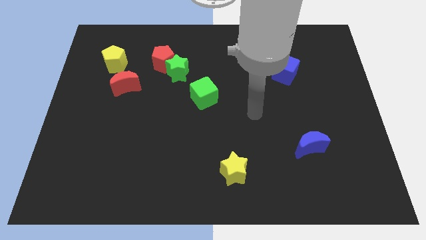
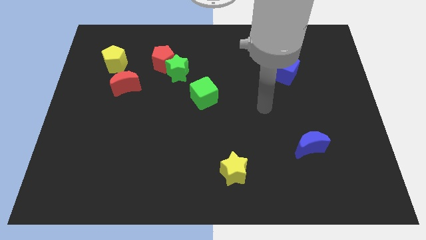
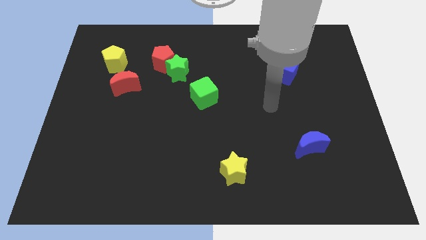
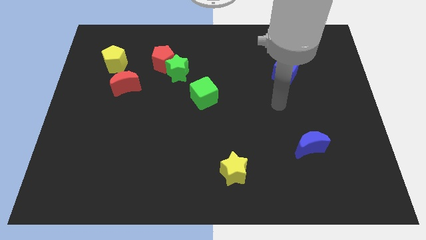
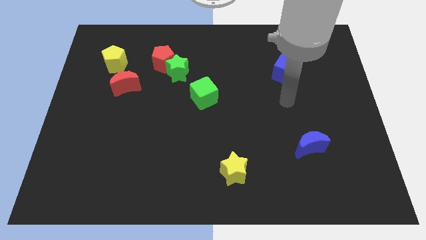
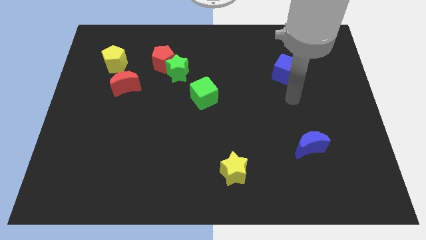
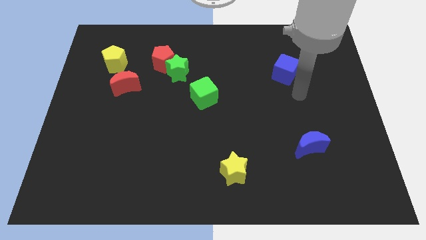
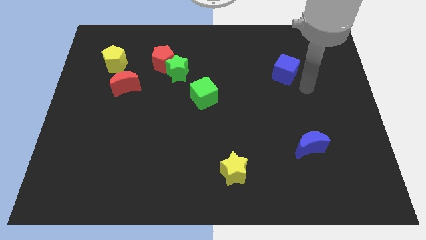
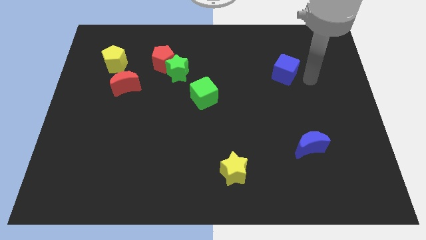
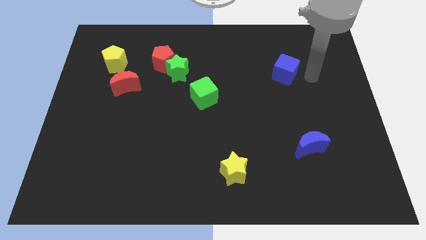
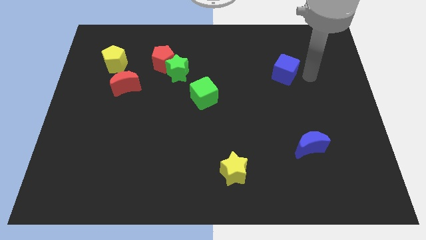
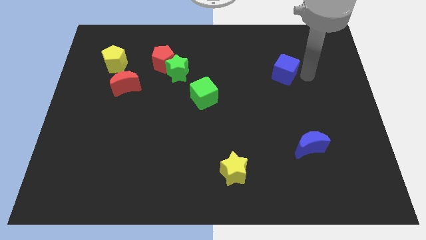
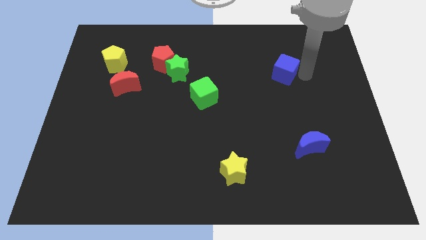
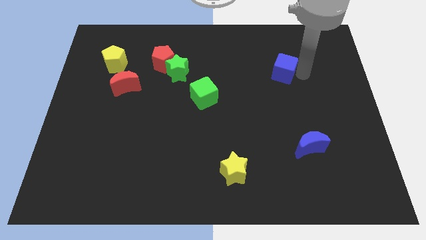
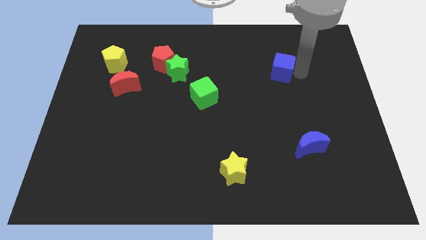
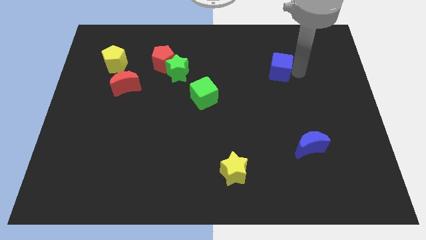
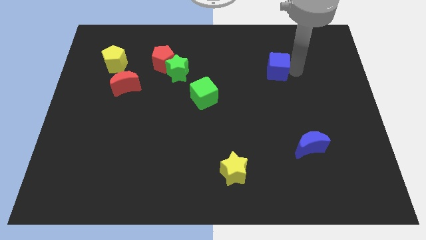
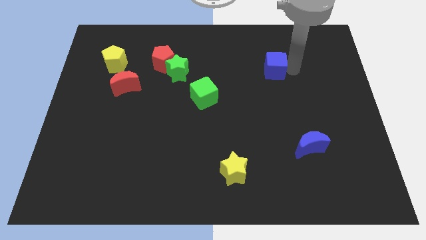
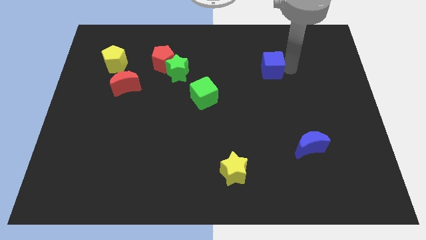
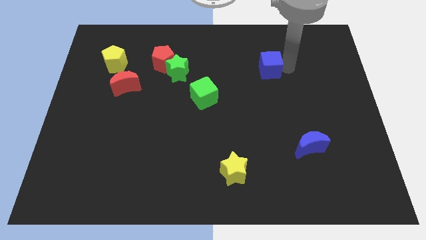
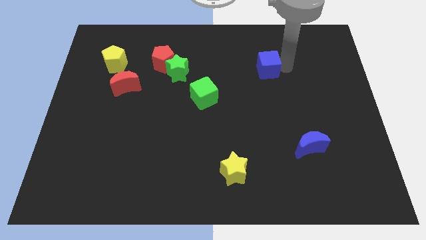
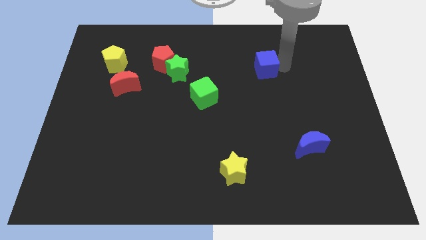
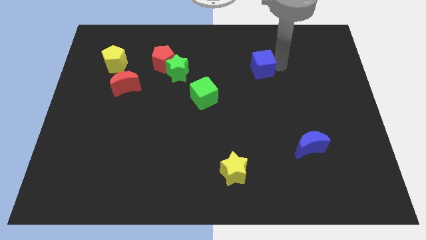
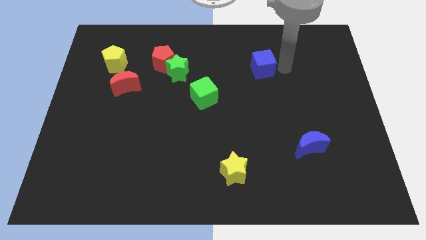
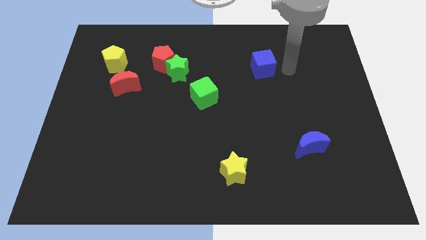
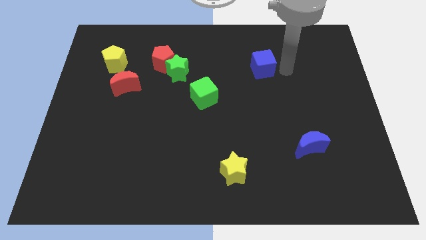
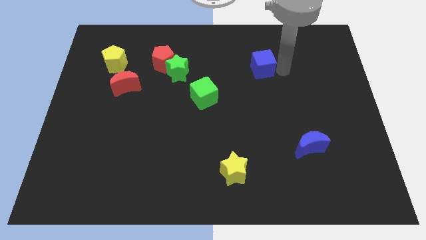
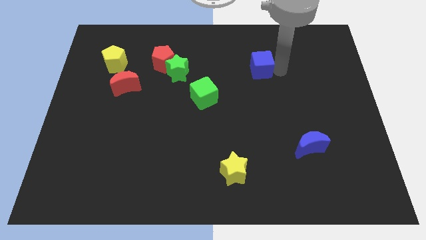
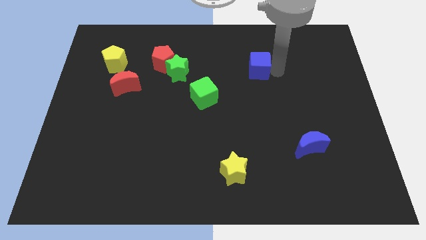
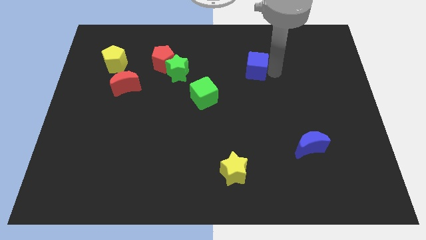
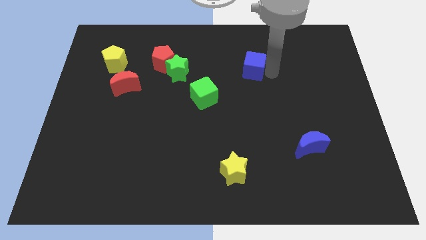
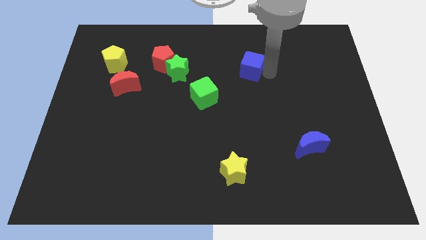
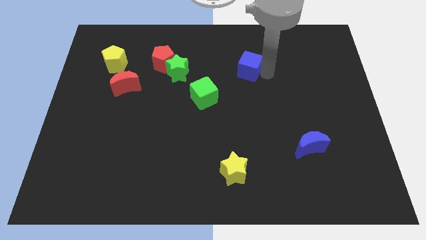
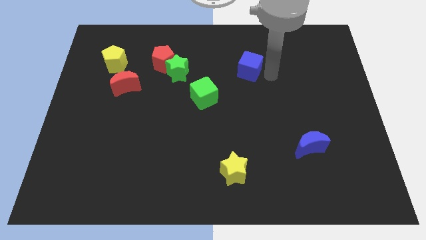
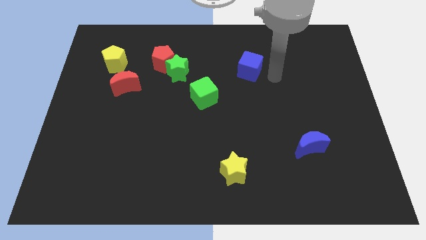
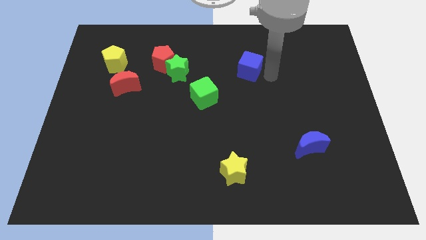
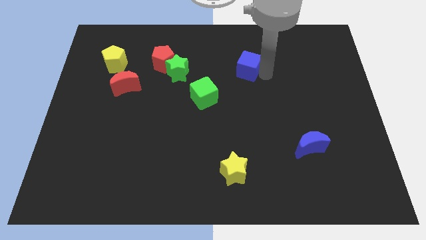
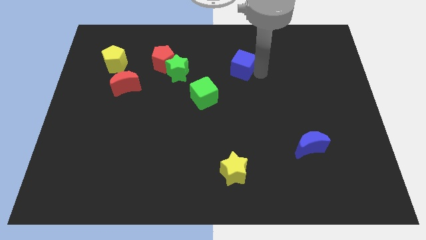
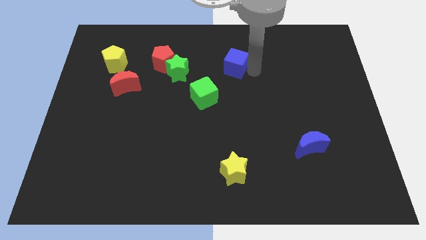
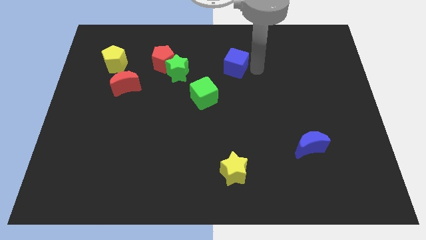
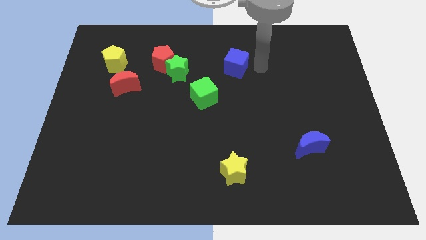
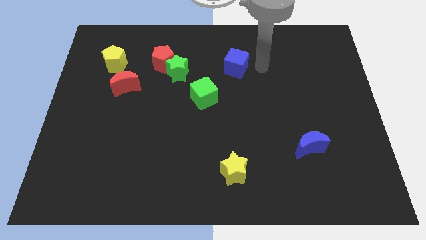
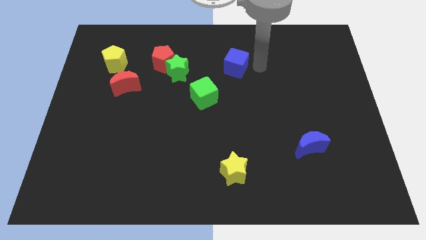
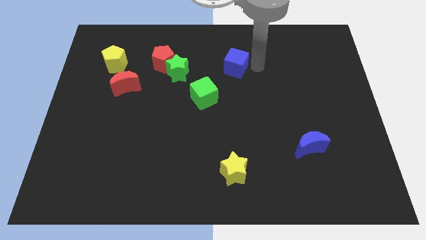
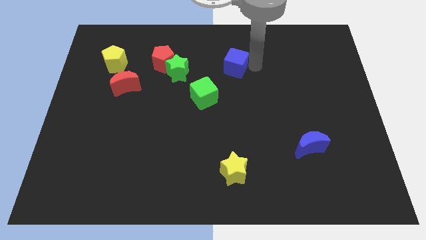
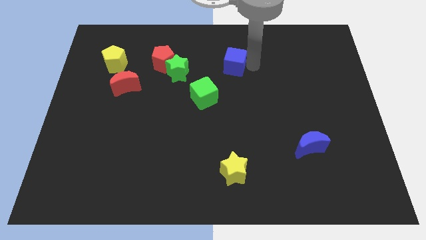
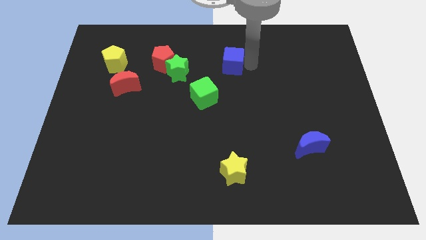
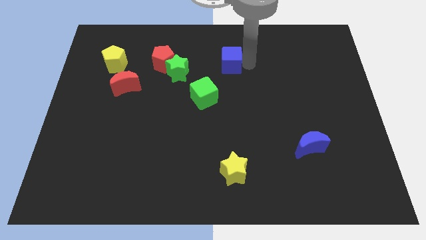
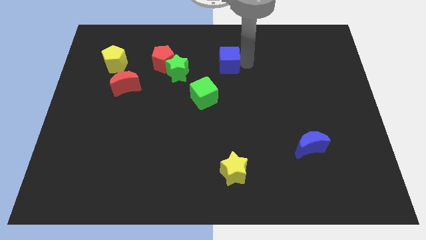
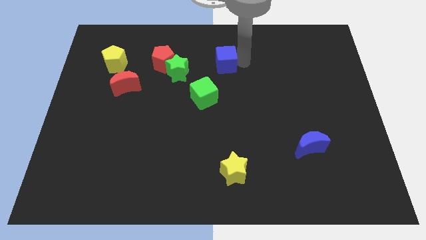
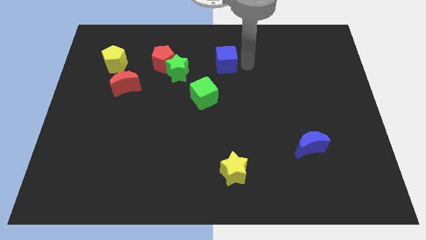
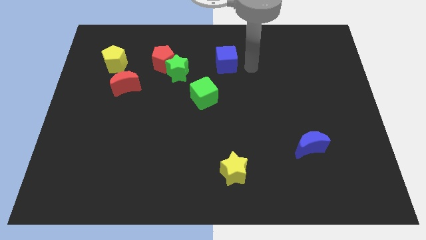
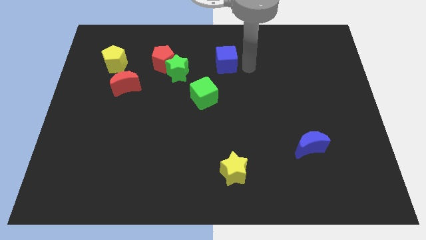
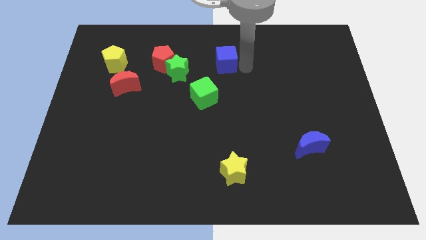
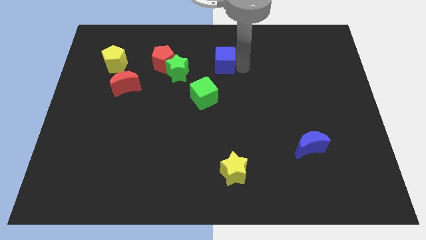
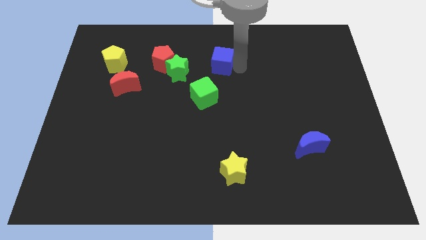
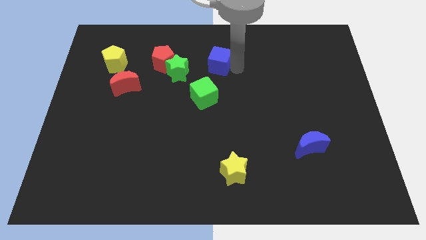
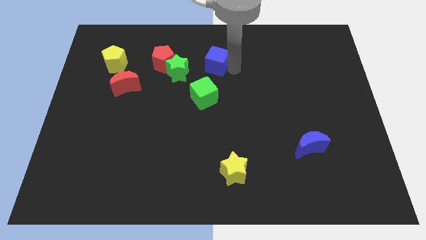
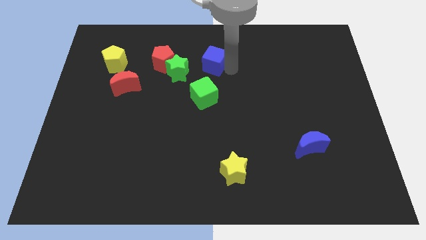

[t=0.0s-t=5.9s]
put the blue cube to the top right side of the green star

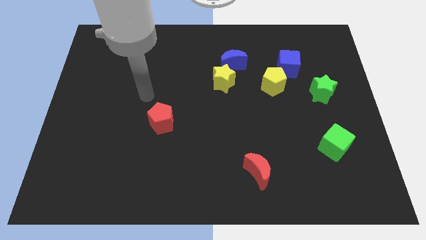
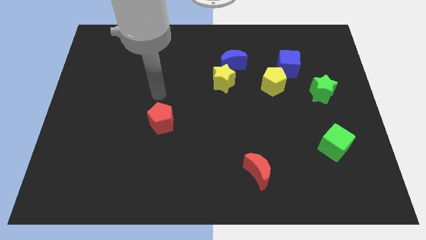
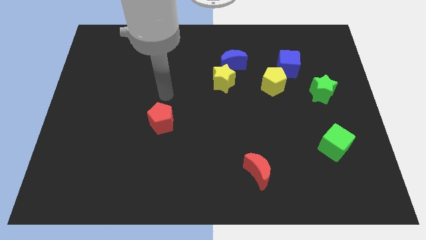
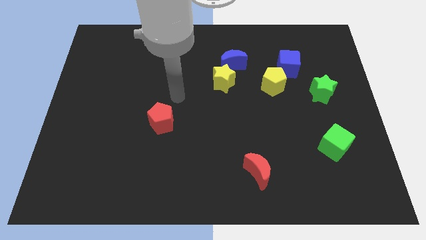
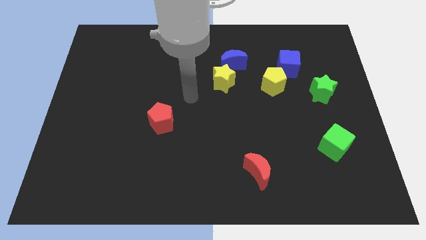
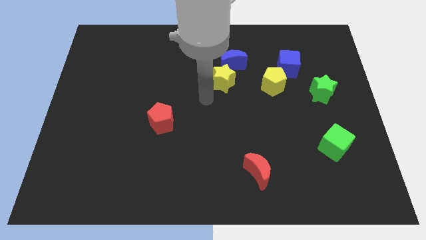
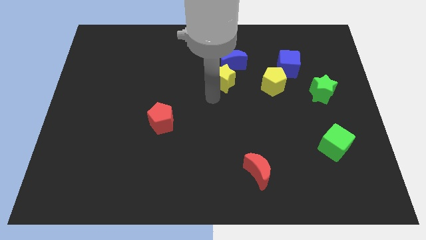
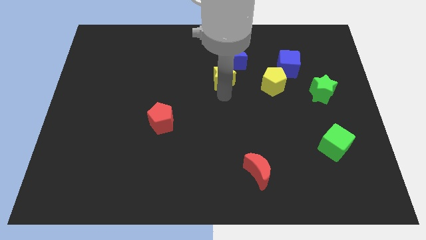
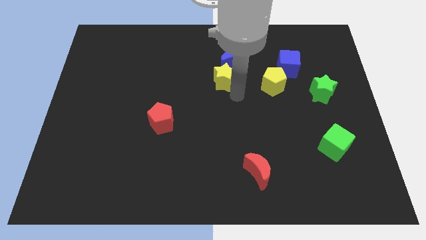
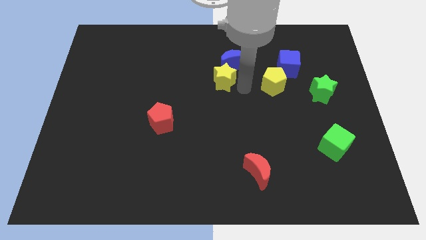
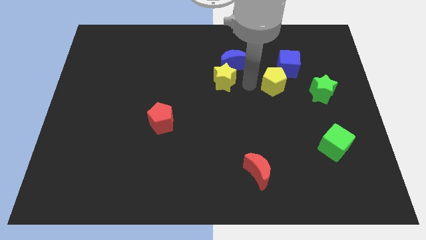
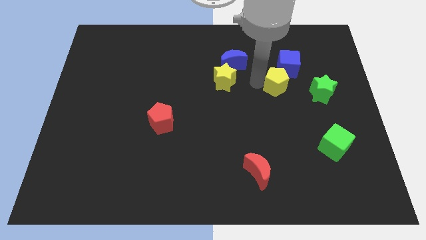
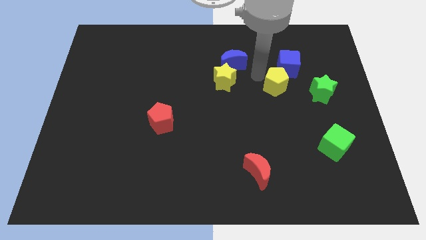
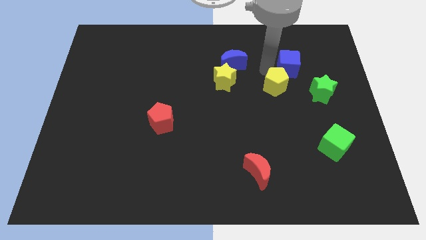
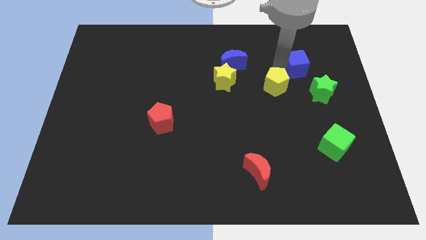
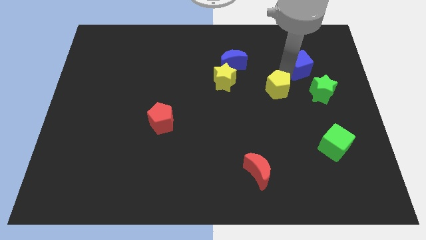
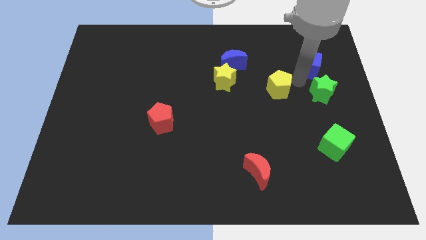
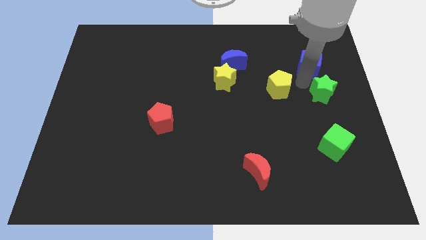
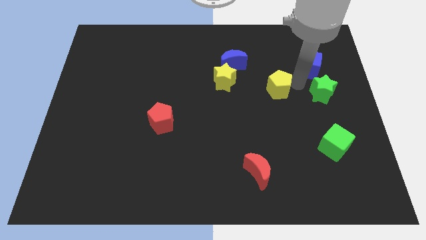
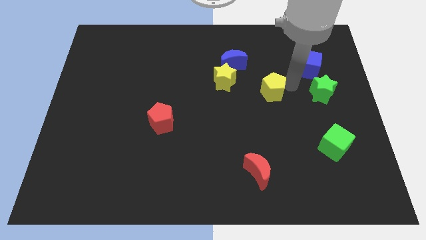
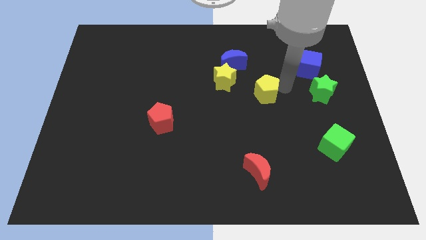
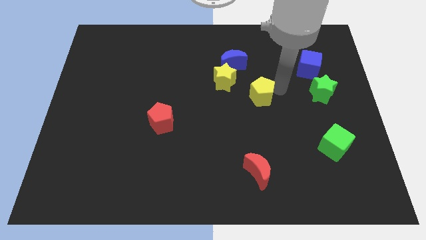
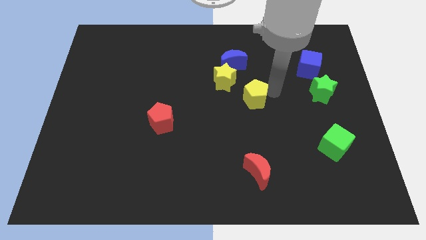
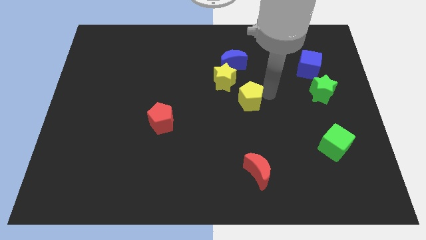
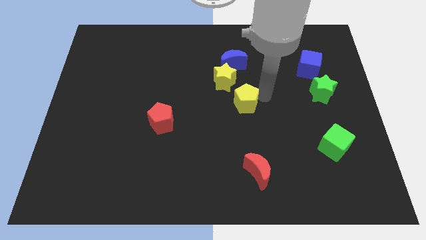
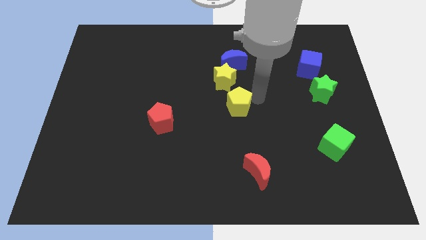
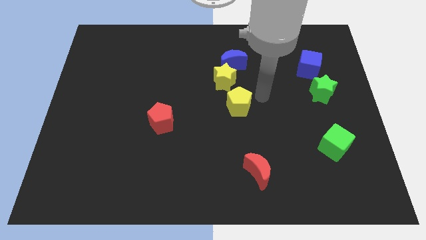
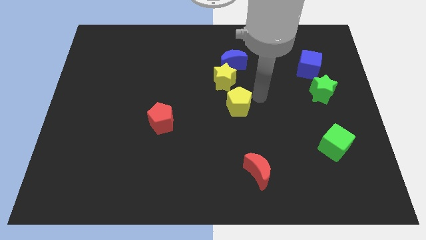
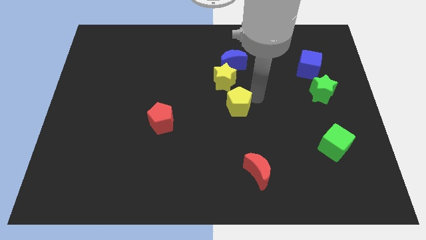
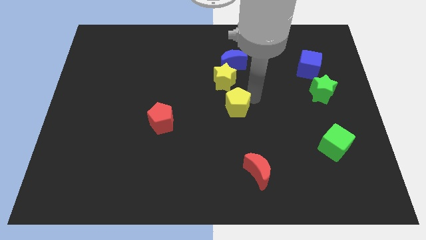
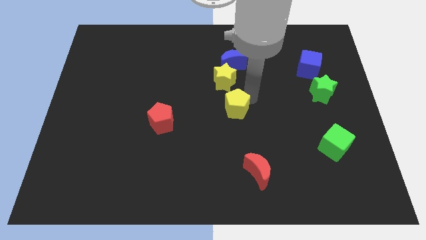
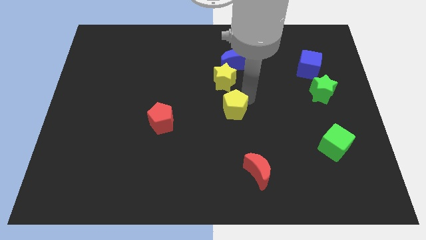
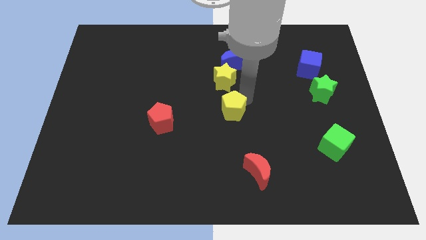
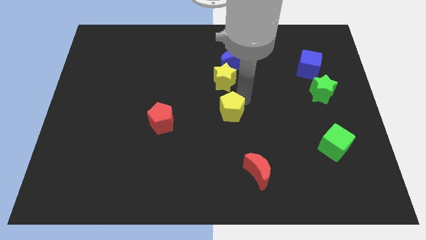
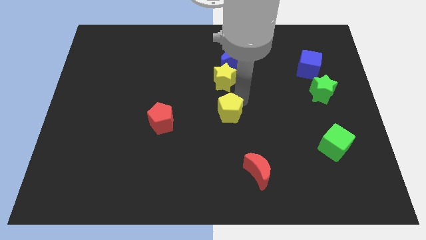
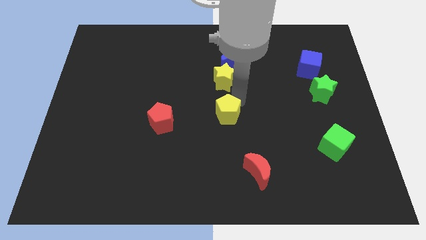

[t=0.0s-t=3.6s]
put the yellow pentagon right of the red pentagon
